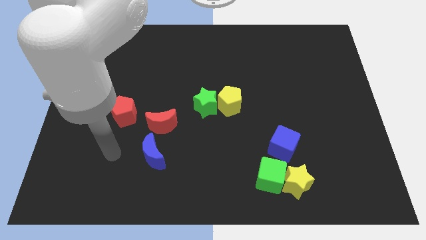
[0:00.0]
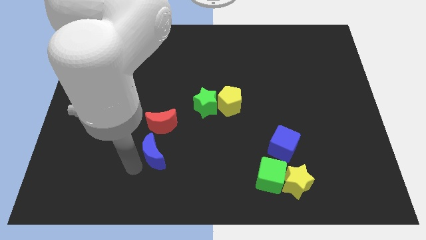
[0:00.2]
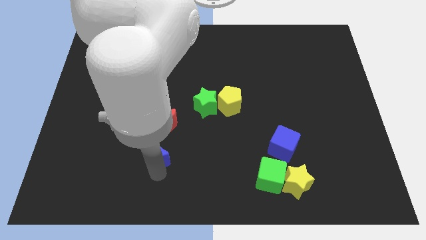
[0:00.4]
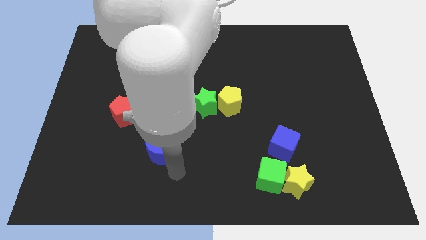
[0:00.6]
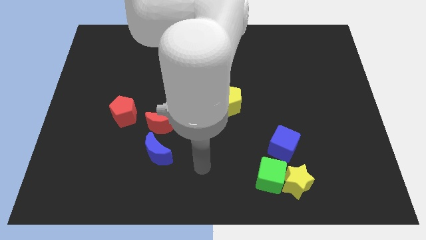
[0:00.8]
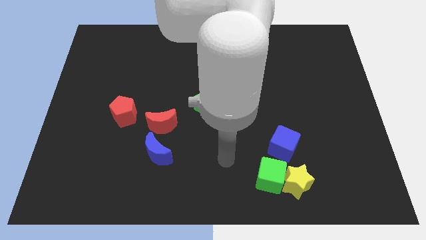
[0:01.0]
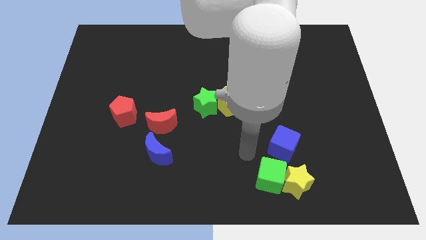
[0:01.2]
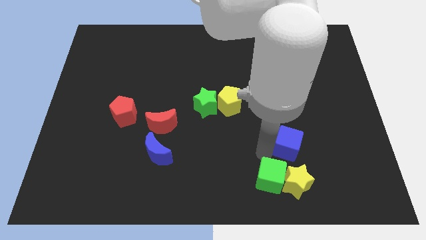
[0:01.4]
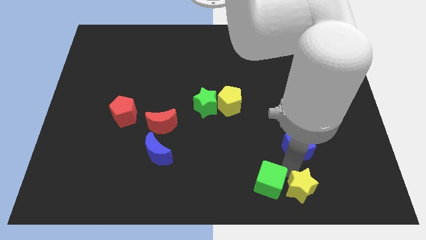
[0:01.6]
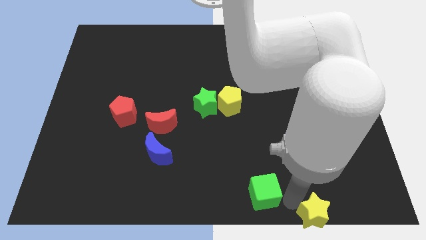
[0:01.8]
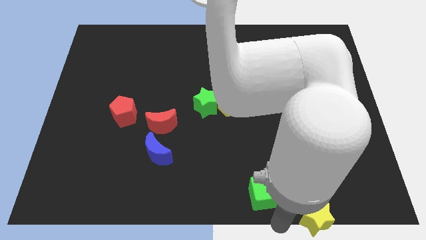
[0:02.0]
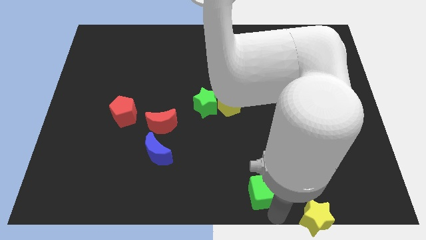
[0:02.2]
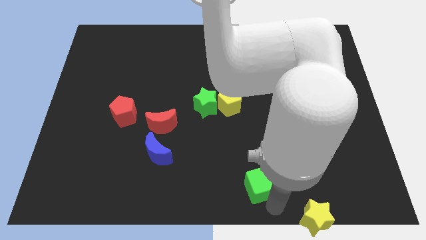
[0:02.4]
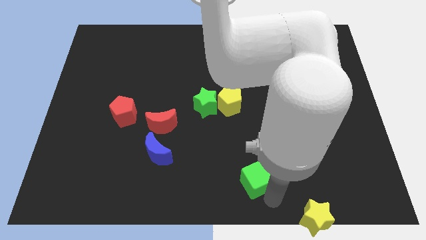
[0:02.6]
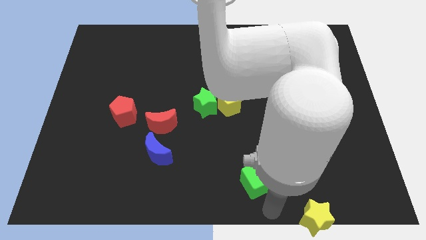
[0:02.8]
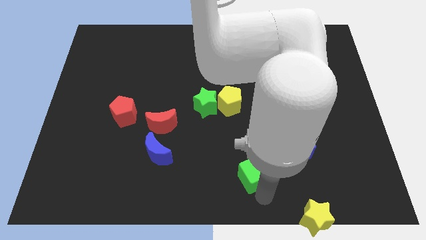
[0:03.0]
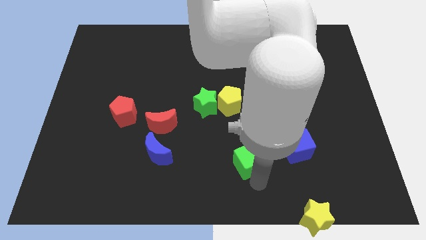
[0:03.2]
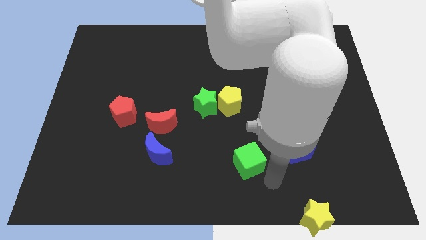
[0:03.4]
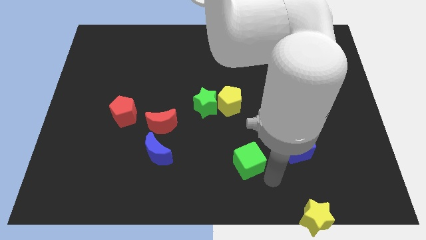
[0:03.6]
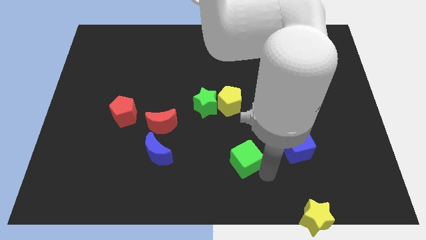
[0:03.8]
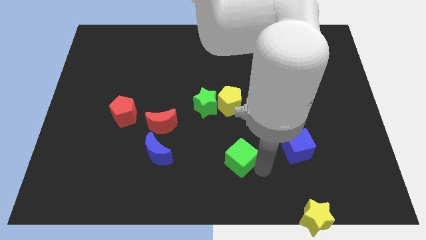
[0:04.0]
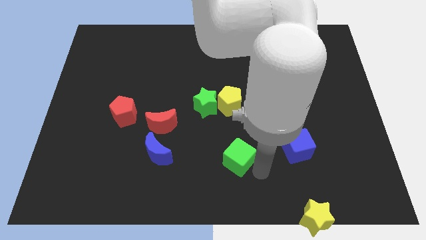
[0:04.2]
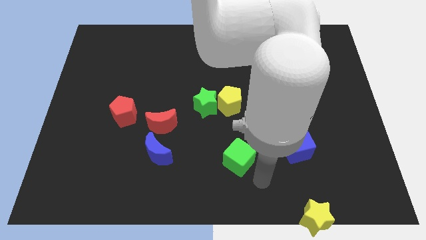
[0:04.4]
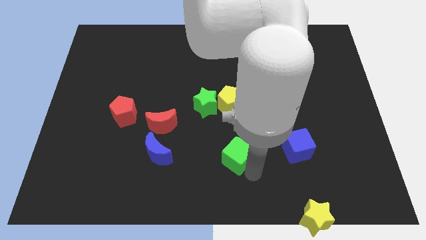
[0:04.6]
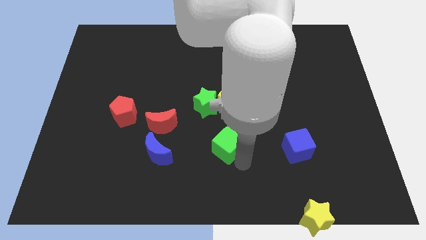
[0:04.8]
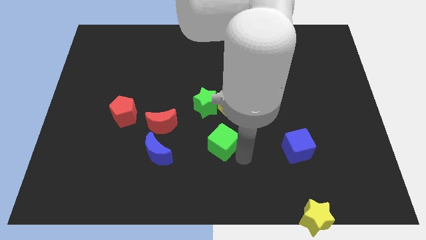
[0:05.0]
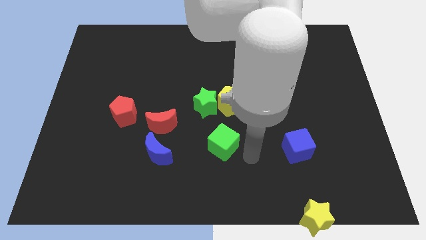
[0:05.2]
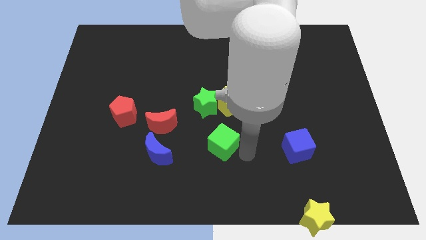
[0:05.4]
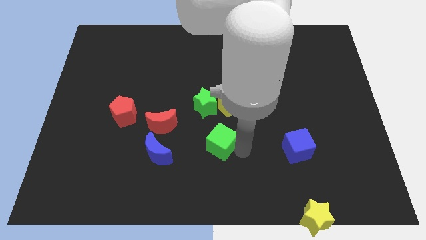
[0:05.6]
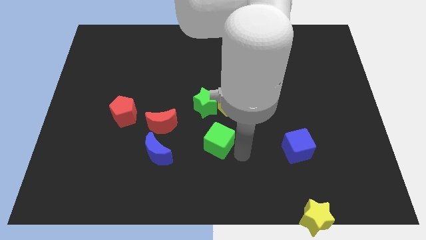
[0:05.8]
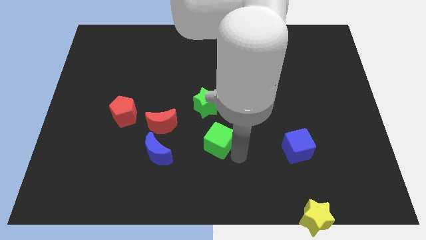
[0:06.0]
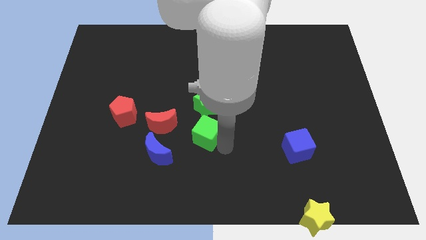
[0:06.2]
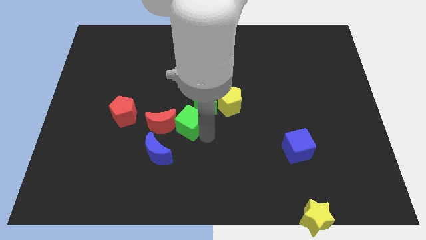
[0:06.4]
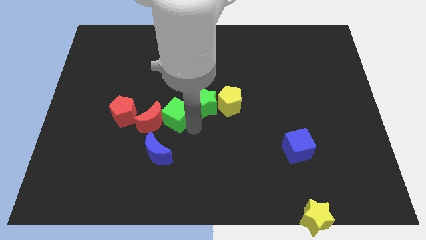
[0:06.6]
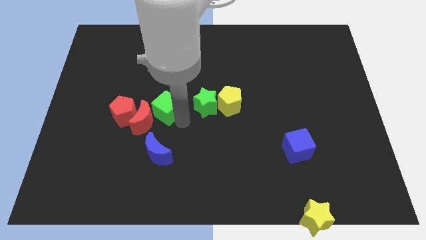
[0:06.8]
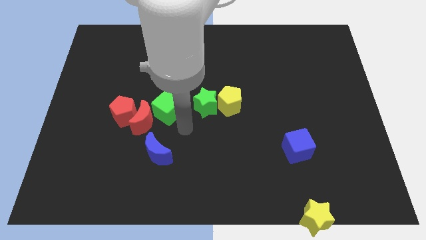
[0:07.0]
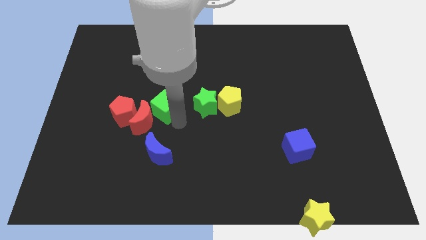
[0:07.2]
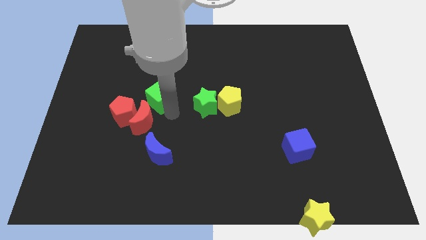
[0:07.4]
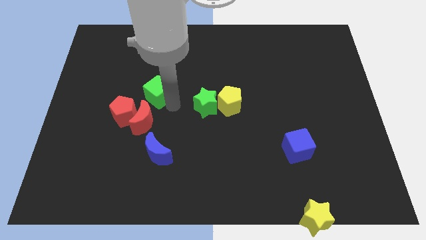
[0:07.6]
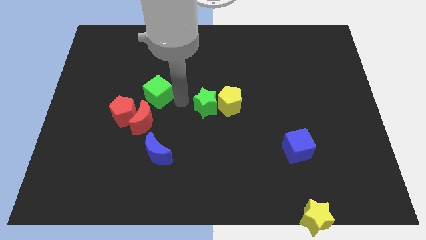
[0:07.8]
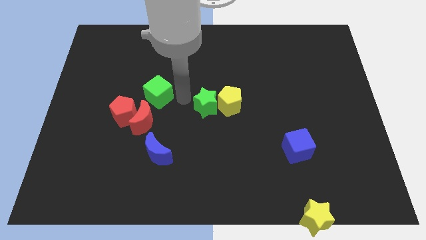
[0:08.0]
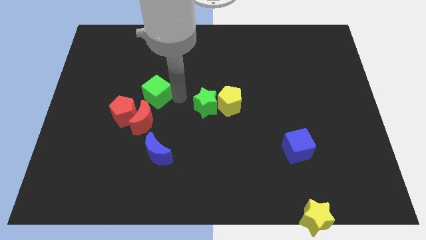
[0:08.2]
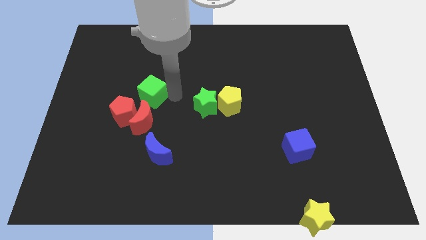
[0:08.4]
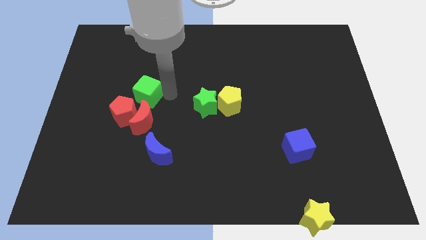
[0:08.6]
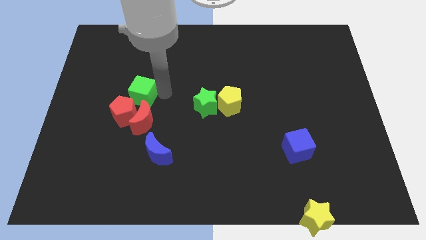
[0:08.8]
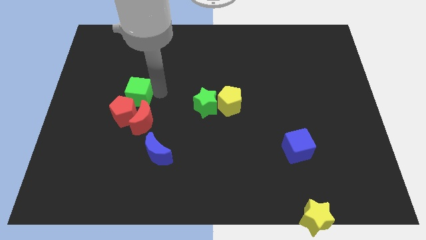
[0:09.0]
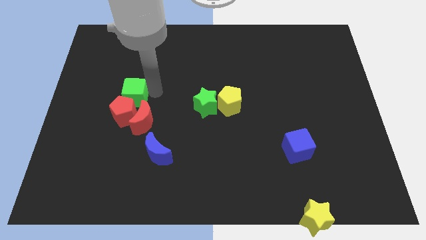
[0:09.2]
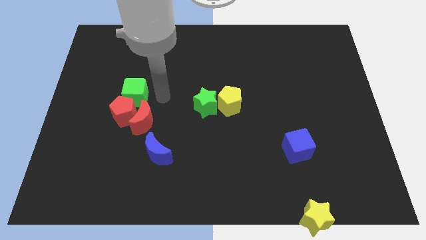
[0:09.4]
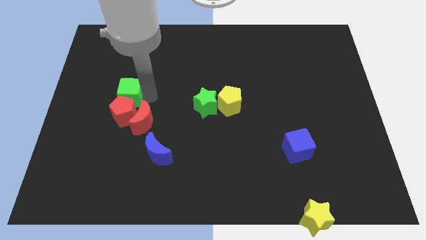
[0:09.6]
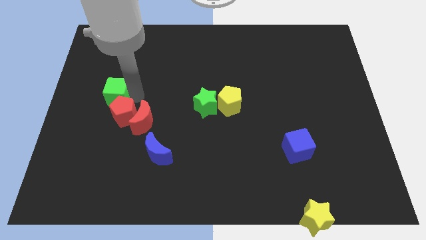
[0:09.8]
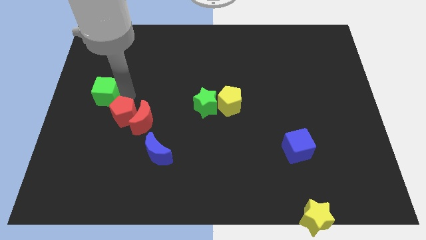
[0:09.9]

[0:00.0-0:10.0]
put the green cube to the left side of the board

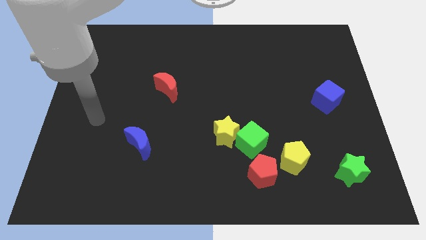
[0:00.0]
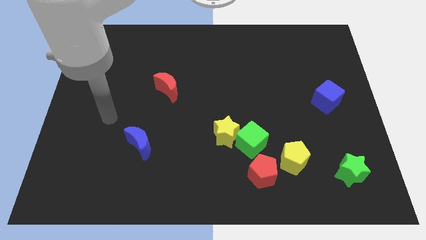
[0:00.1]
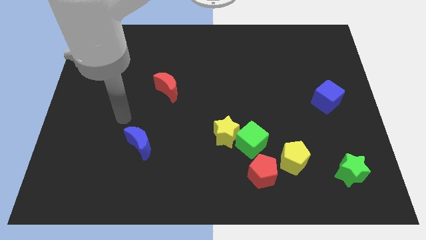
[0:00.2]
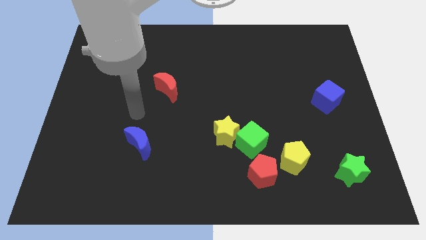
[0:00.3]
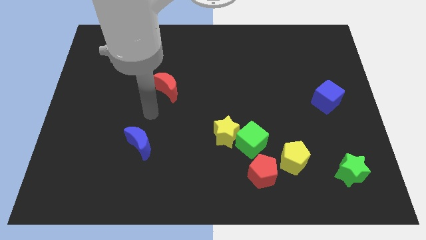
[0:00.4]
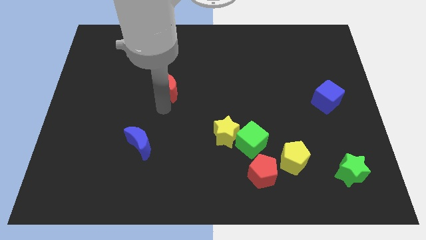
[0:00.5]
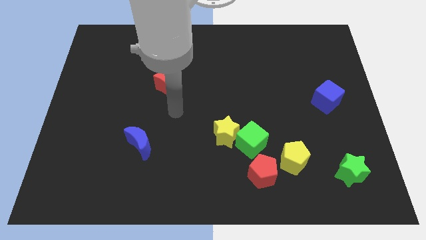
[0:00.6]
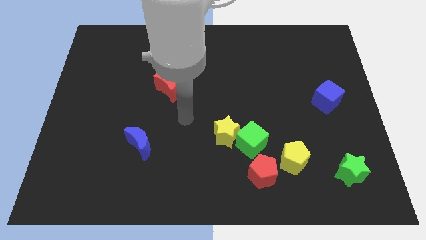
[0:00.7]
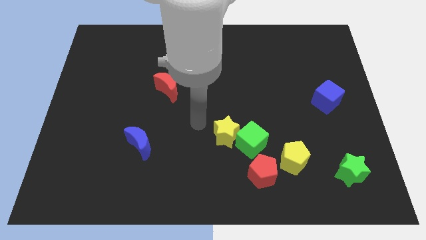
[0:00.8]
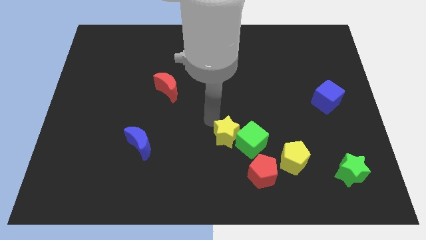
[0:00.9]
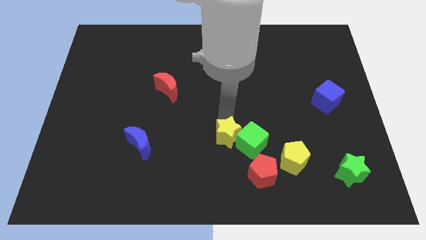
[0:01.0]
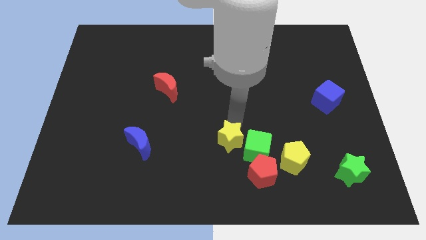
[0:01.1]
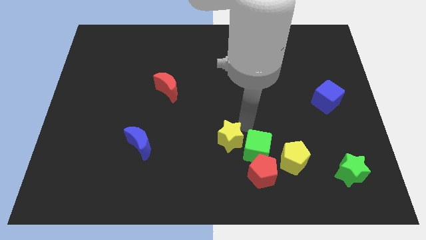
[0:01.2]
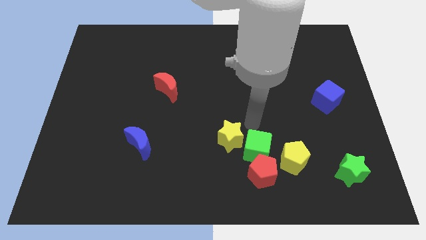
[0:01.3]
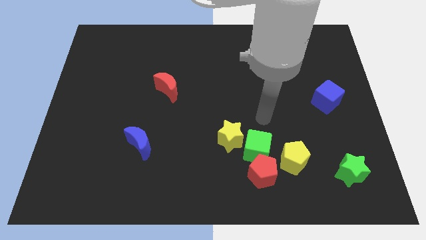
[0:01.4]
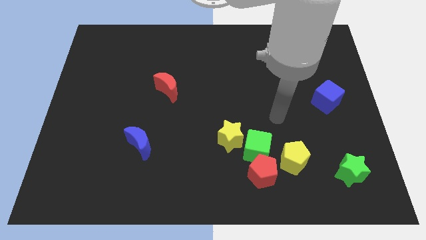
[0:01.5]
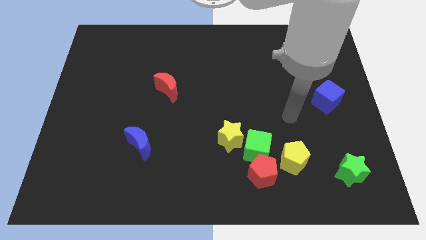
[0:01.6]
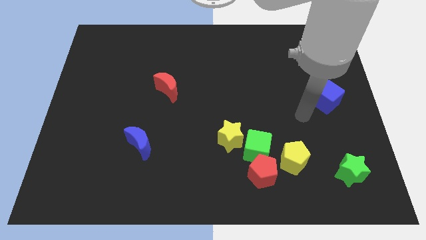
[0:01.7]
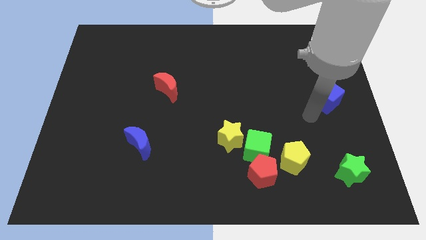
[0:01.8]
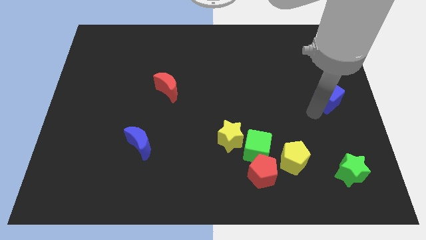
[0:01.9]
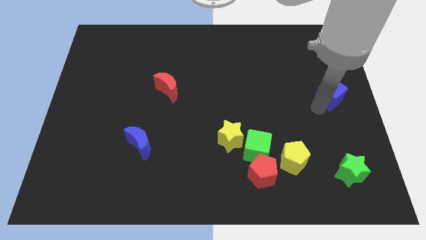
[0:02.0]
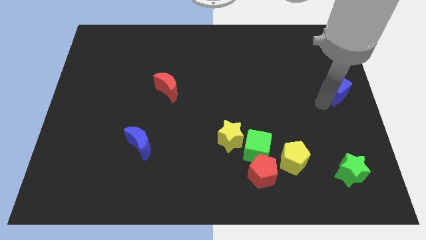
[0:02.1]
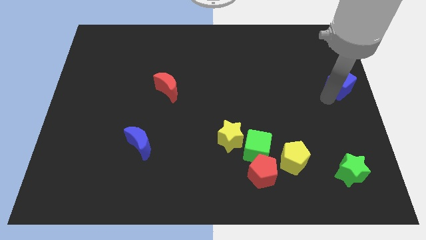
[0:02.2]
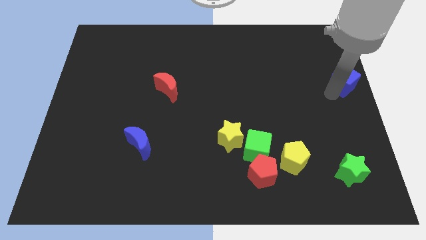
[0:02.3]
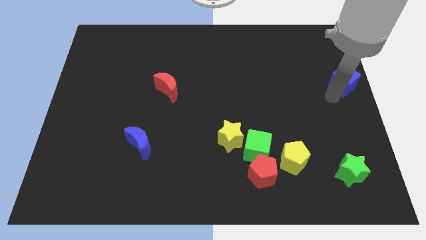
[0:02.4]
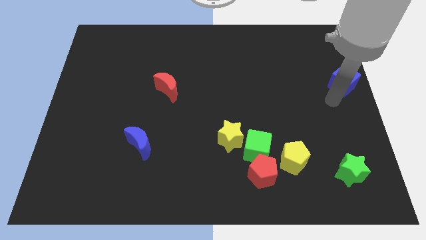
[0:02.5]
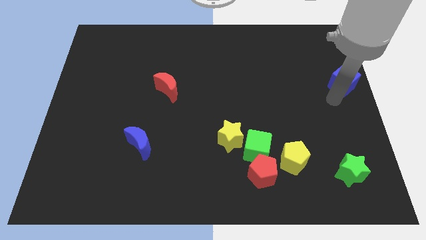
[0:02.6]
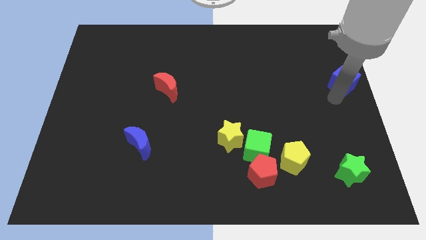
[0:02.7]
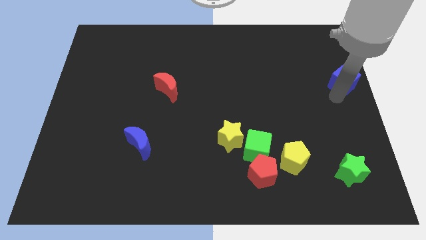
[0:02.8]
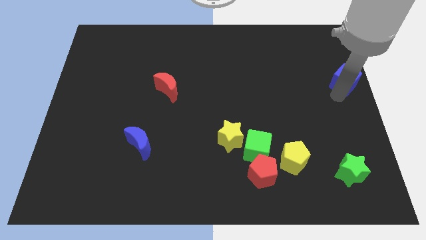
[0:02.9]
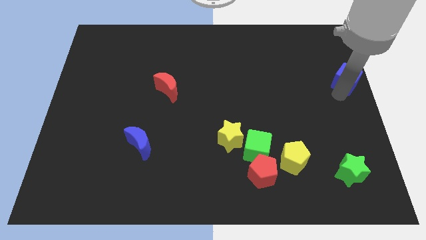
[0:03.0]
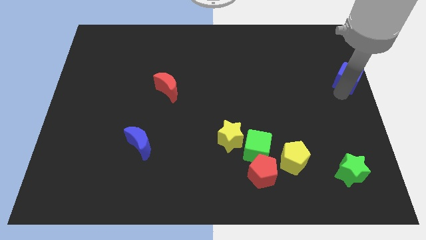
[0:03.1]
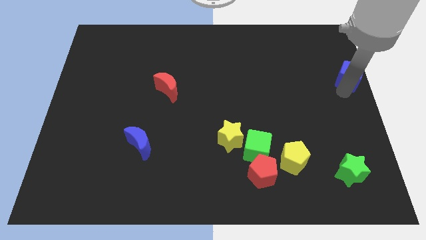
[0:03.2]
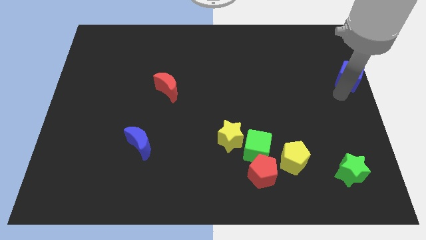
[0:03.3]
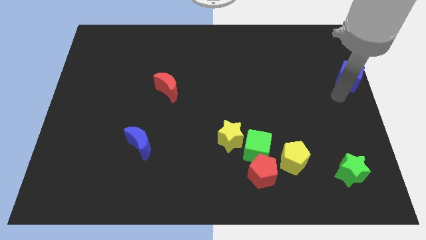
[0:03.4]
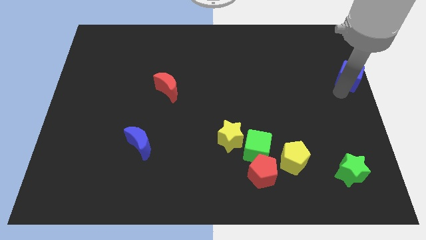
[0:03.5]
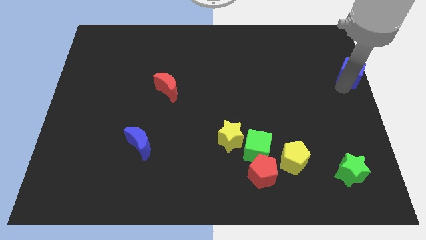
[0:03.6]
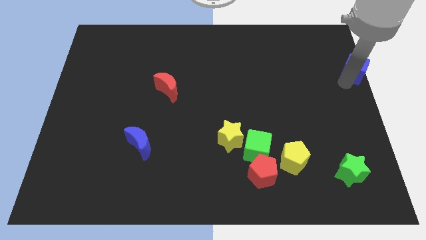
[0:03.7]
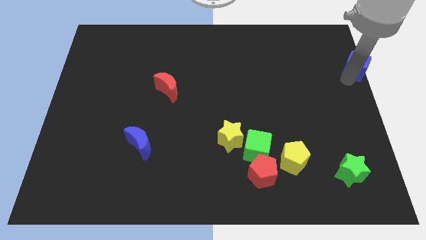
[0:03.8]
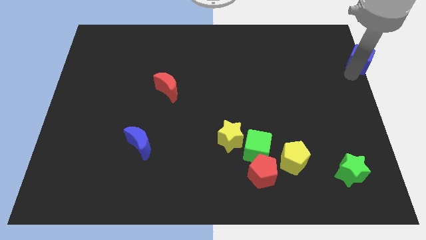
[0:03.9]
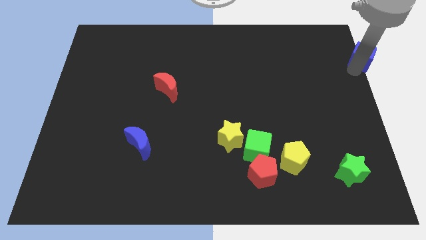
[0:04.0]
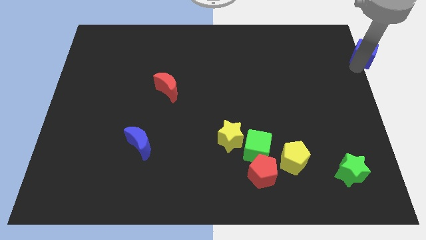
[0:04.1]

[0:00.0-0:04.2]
move the blue cube to the upper right corner
